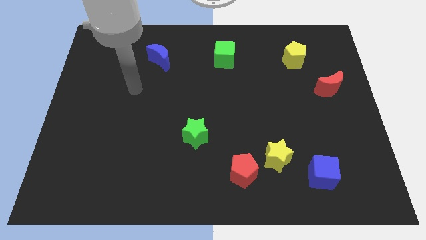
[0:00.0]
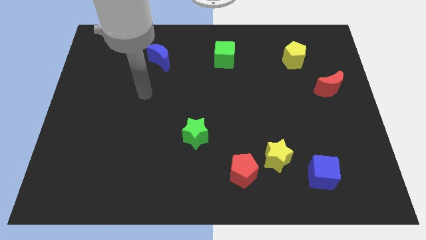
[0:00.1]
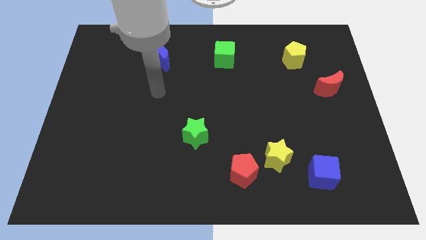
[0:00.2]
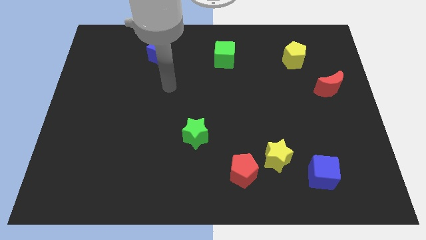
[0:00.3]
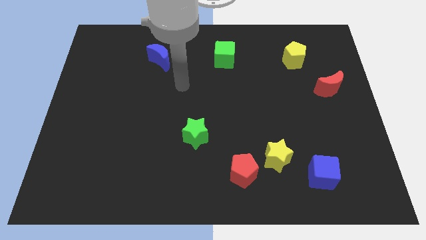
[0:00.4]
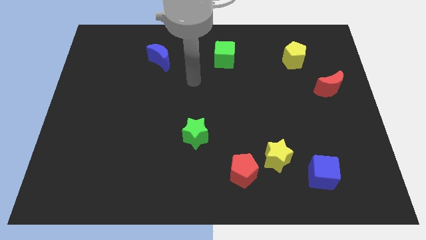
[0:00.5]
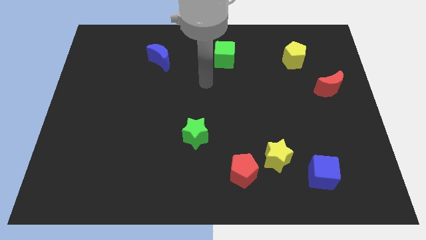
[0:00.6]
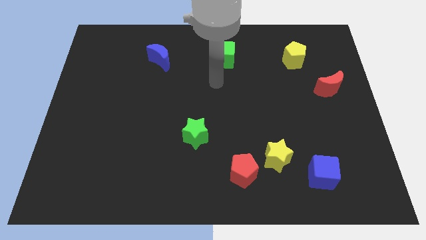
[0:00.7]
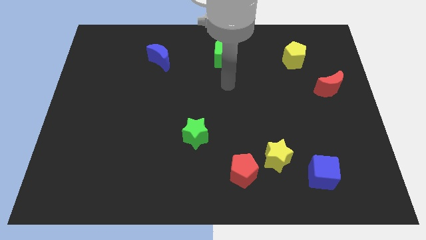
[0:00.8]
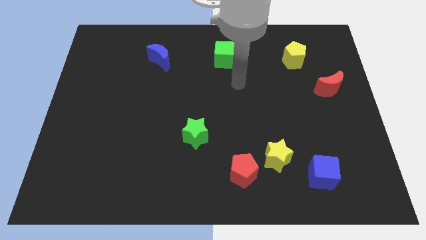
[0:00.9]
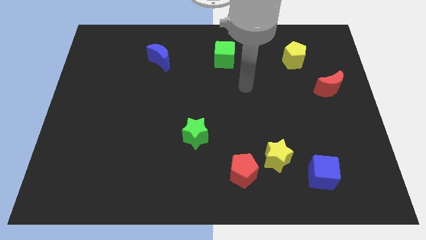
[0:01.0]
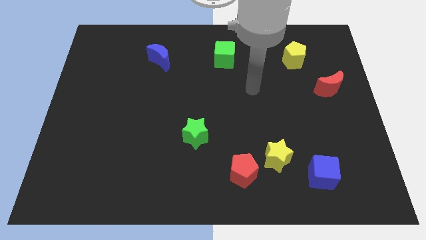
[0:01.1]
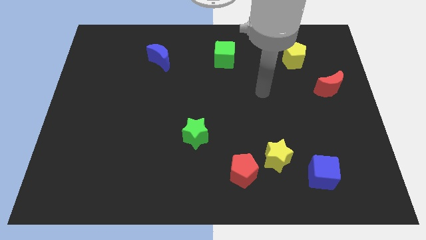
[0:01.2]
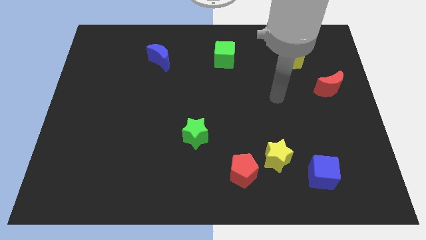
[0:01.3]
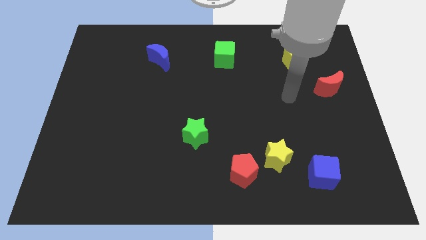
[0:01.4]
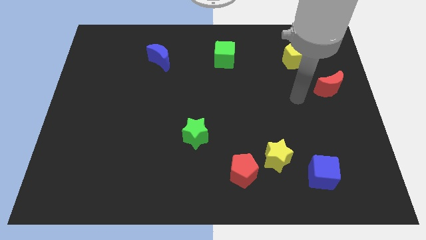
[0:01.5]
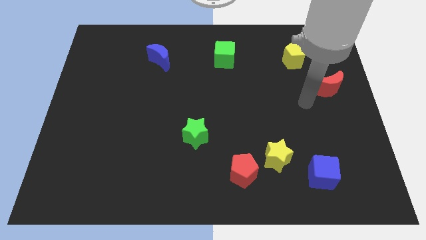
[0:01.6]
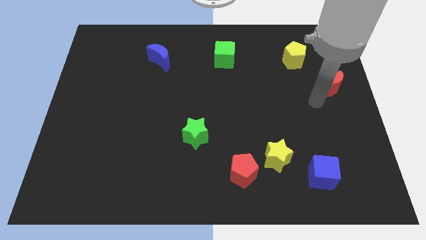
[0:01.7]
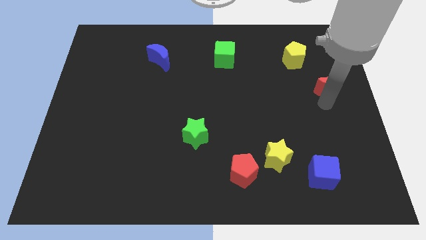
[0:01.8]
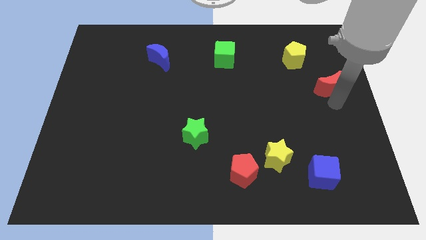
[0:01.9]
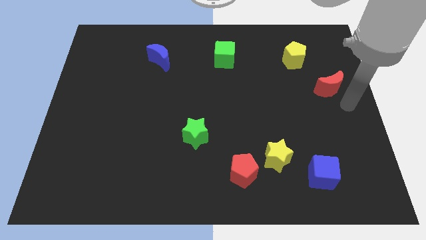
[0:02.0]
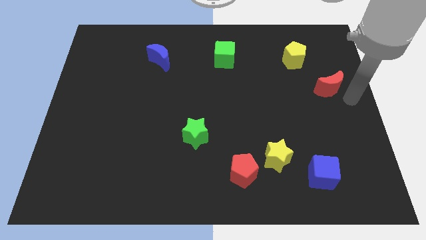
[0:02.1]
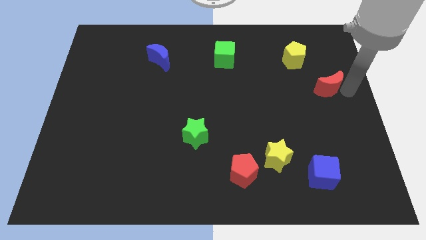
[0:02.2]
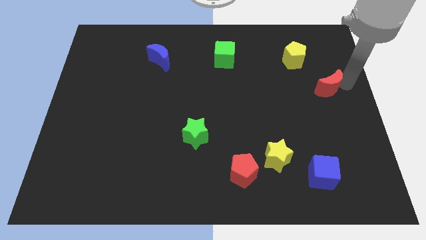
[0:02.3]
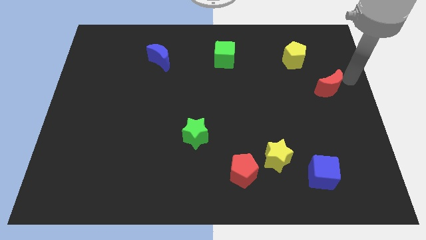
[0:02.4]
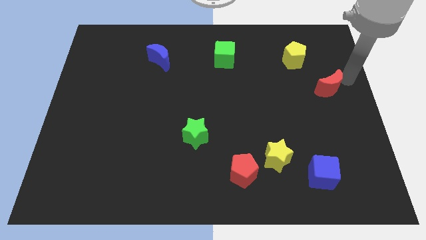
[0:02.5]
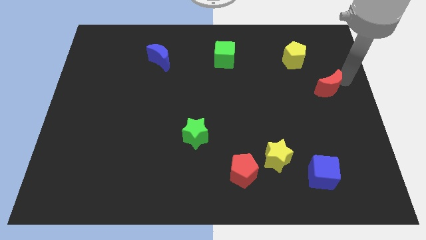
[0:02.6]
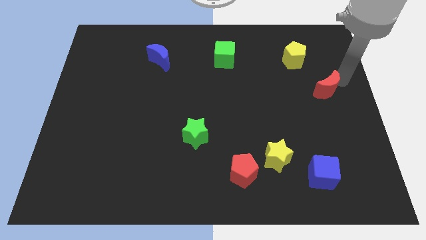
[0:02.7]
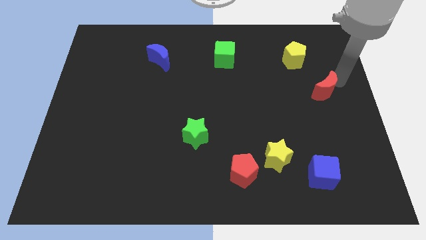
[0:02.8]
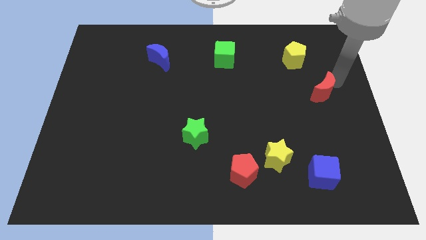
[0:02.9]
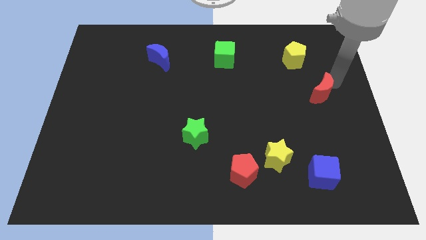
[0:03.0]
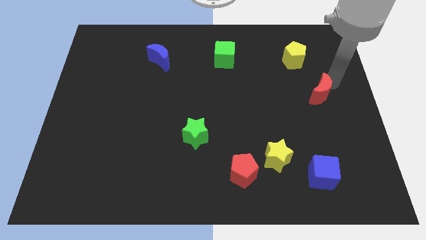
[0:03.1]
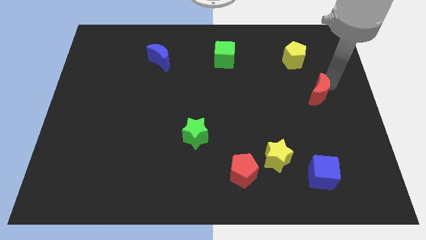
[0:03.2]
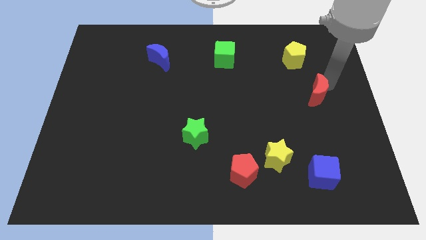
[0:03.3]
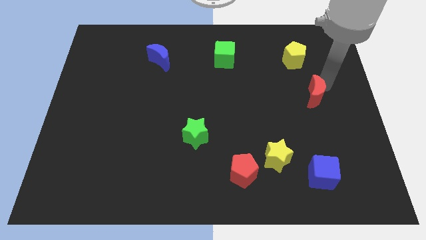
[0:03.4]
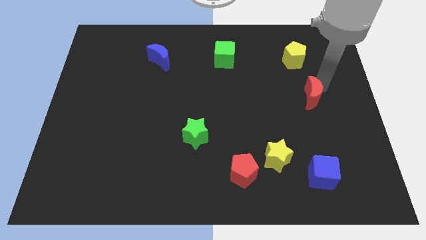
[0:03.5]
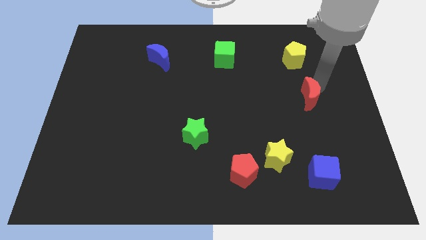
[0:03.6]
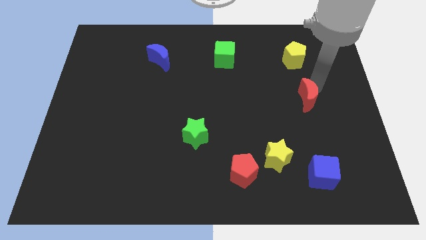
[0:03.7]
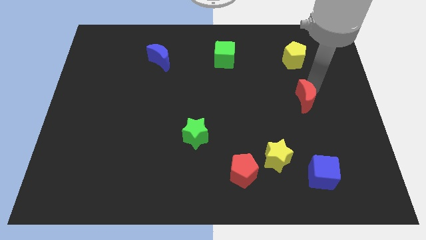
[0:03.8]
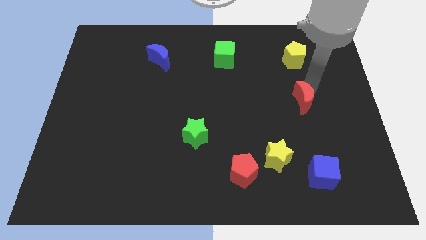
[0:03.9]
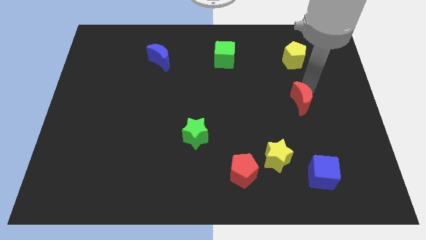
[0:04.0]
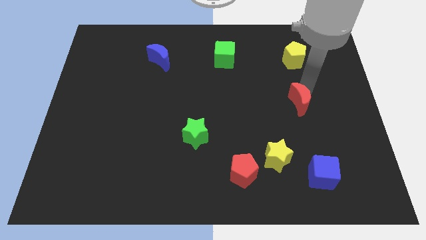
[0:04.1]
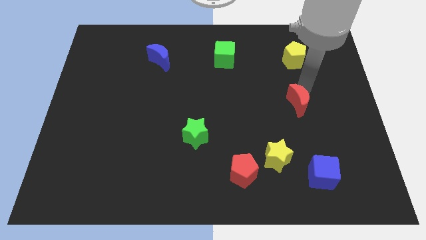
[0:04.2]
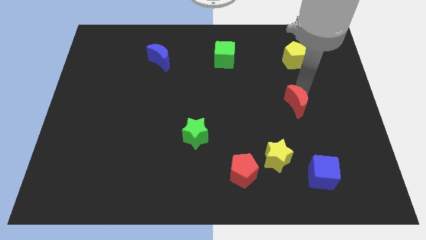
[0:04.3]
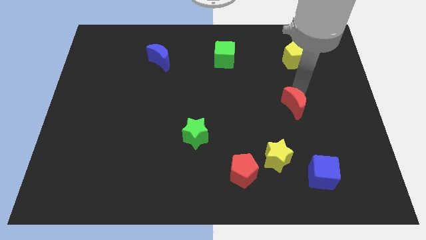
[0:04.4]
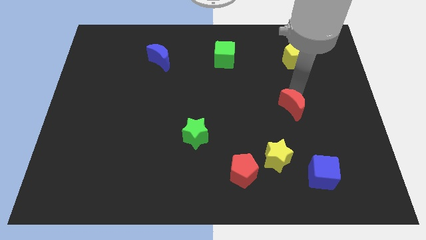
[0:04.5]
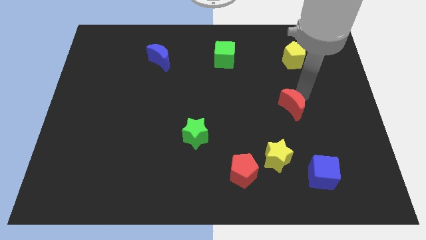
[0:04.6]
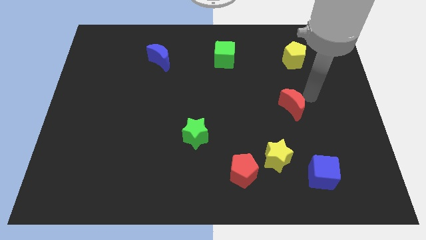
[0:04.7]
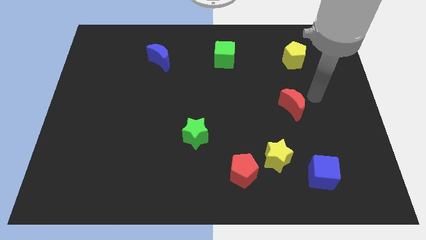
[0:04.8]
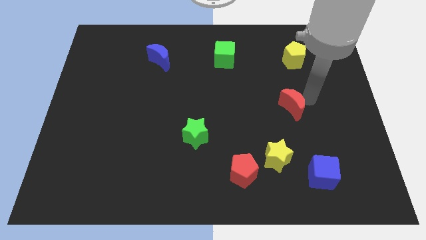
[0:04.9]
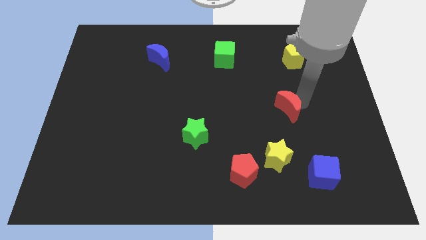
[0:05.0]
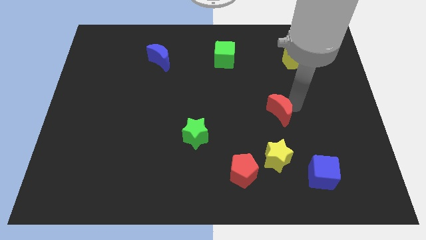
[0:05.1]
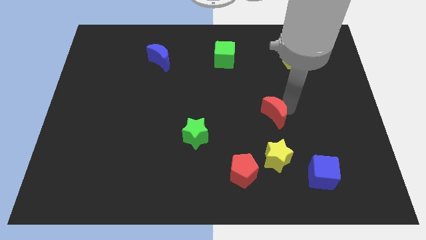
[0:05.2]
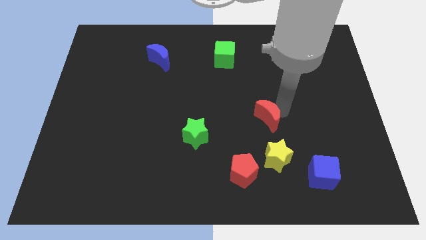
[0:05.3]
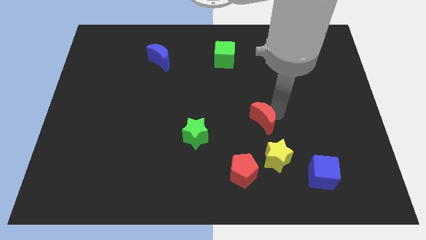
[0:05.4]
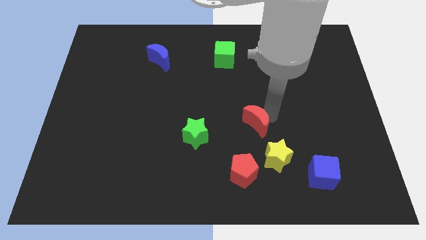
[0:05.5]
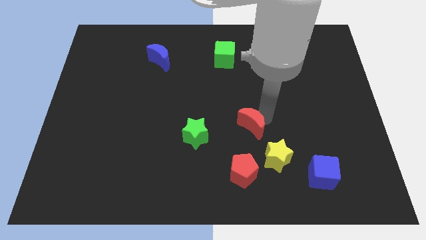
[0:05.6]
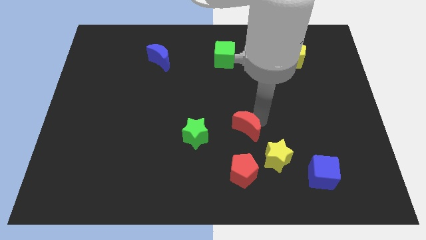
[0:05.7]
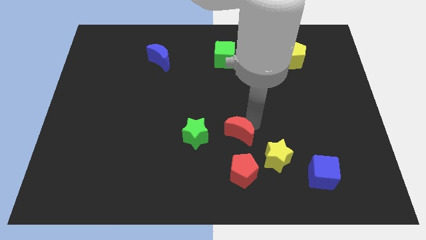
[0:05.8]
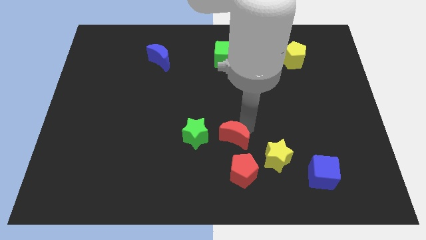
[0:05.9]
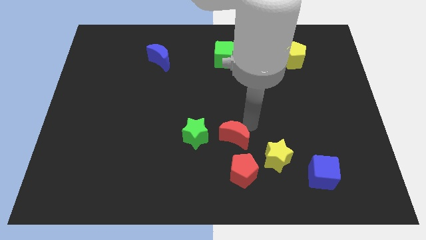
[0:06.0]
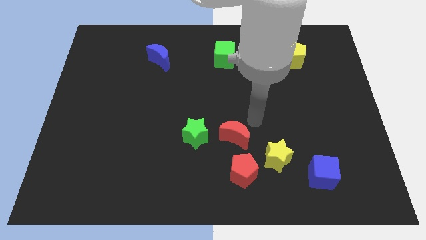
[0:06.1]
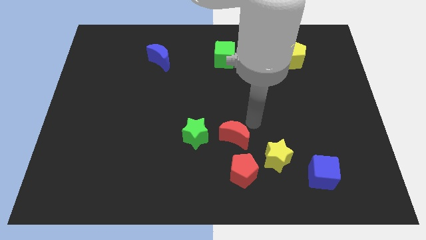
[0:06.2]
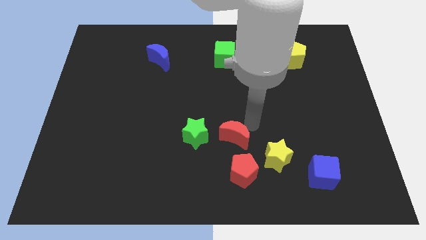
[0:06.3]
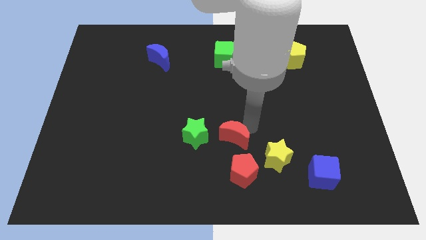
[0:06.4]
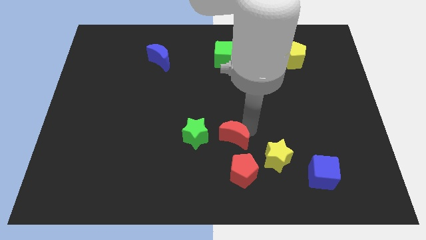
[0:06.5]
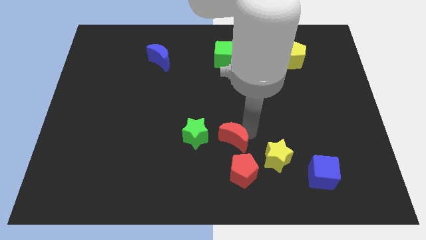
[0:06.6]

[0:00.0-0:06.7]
move the red moon diagonally up and to the left of the red pentagon
